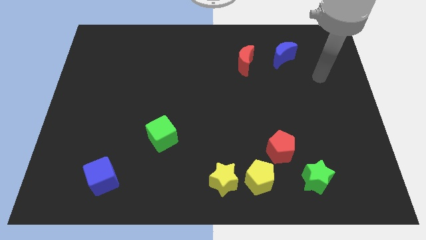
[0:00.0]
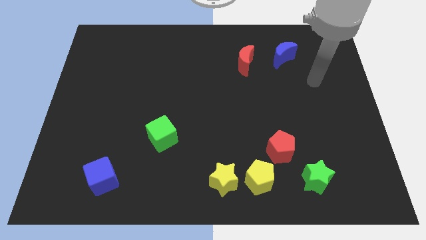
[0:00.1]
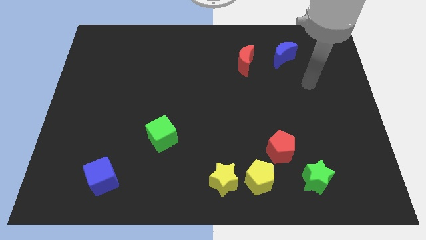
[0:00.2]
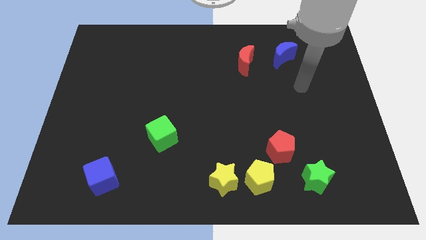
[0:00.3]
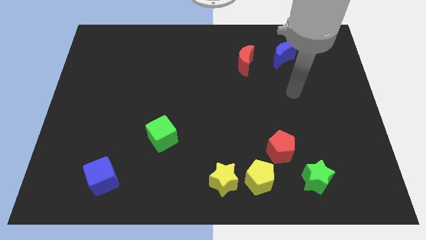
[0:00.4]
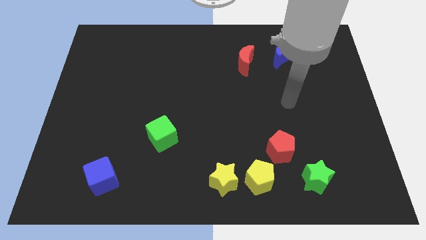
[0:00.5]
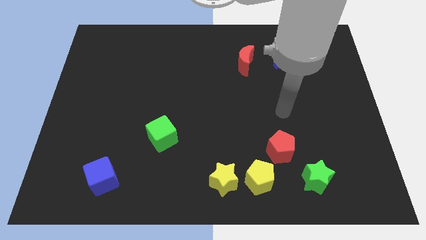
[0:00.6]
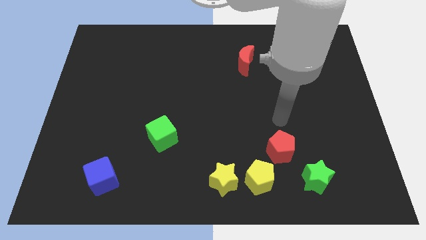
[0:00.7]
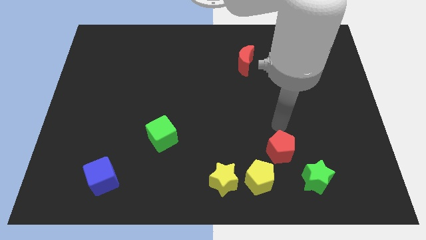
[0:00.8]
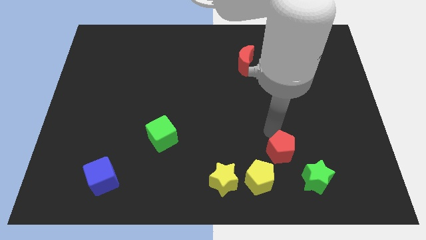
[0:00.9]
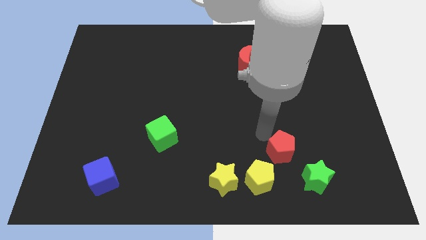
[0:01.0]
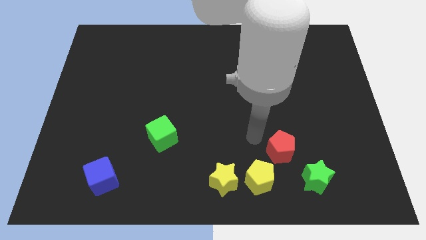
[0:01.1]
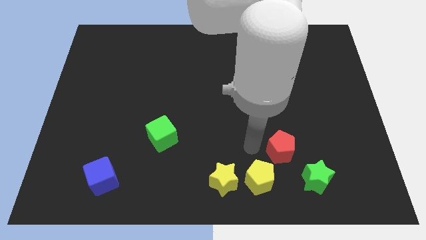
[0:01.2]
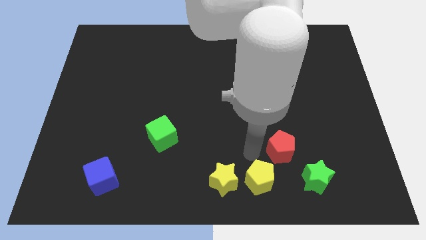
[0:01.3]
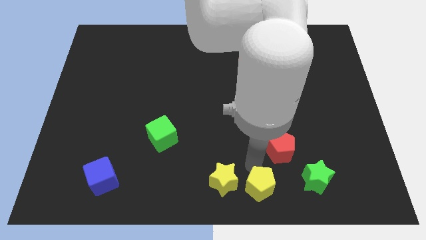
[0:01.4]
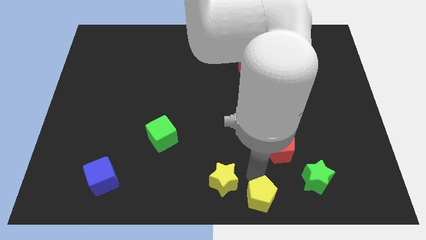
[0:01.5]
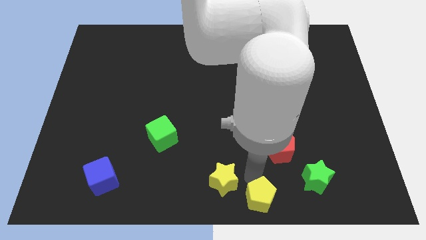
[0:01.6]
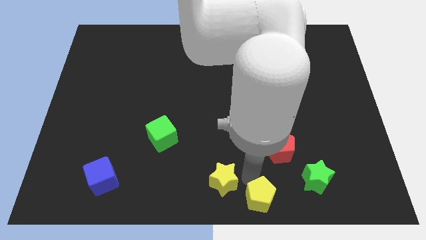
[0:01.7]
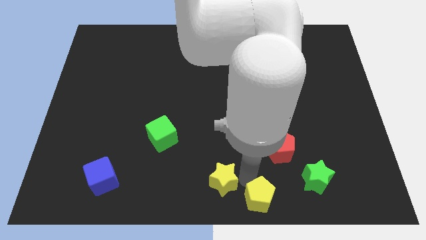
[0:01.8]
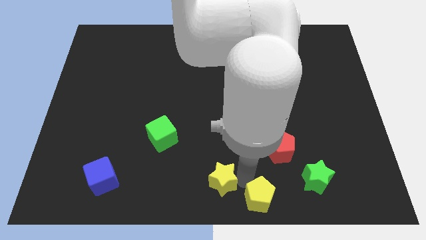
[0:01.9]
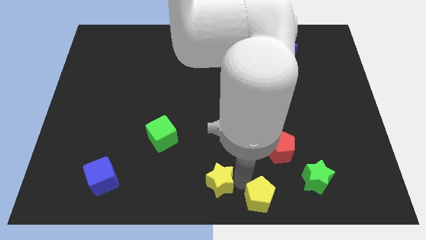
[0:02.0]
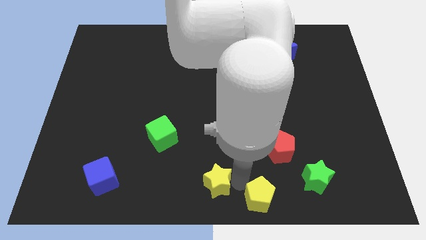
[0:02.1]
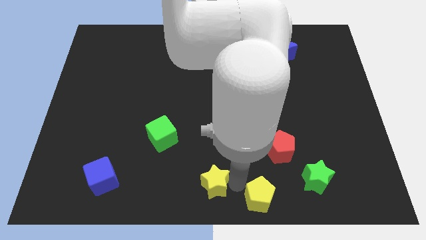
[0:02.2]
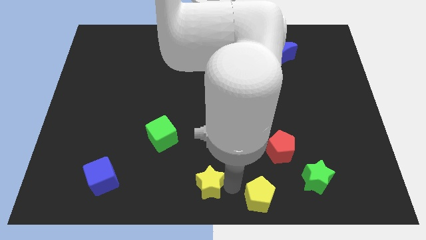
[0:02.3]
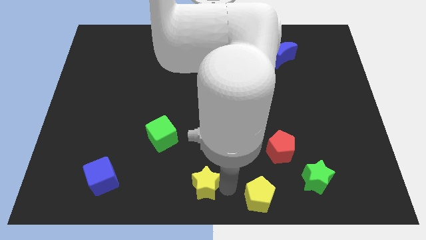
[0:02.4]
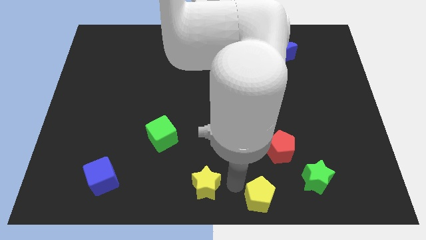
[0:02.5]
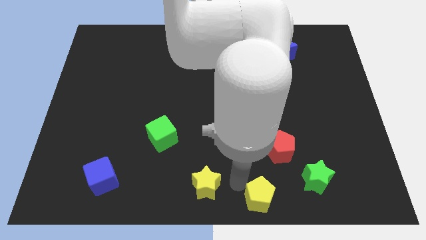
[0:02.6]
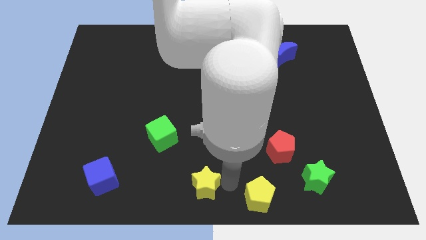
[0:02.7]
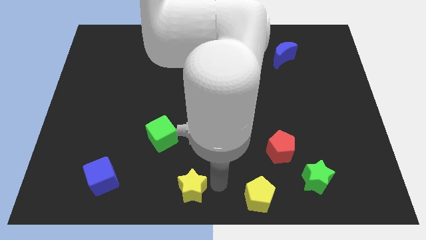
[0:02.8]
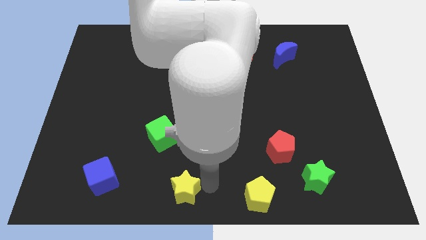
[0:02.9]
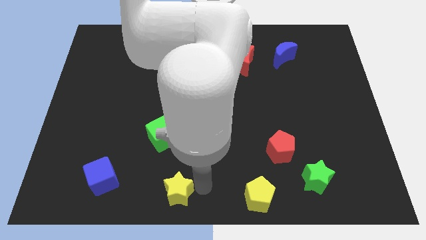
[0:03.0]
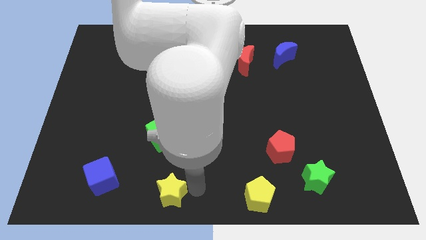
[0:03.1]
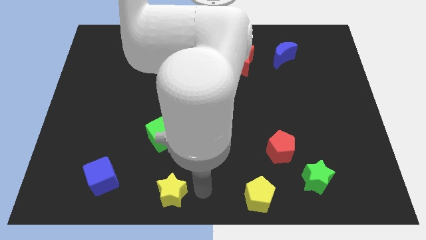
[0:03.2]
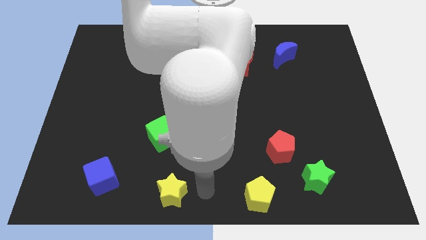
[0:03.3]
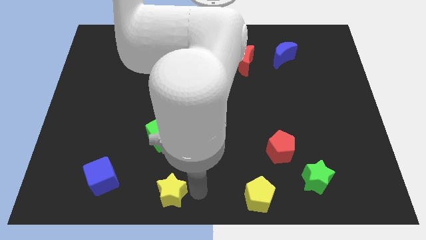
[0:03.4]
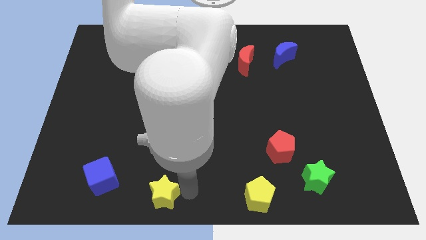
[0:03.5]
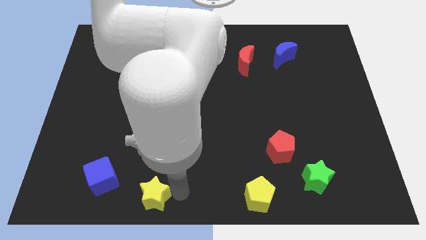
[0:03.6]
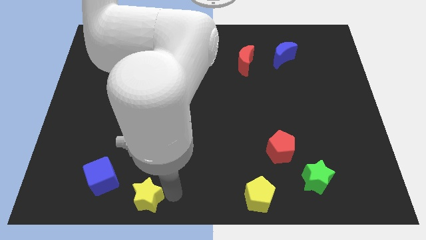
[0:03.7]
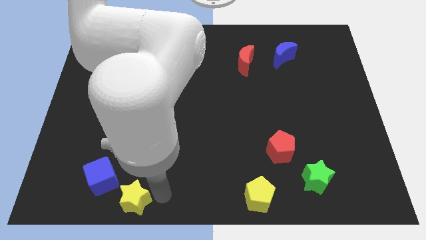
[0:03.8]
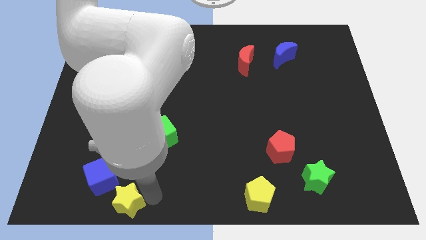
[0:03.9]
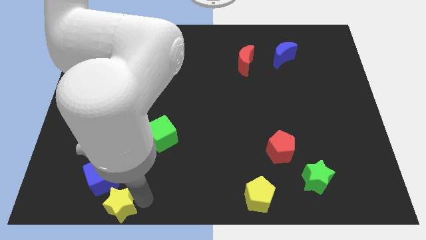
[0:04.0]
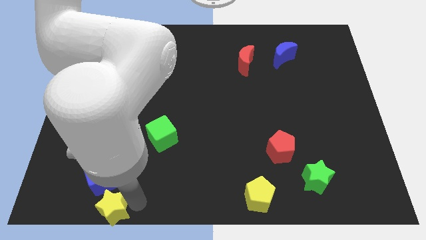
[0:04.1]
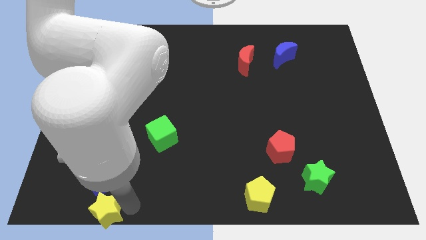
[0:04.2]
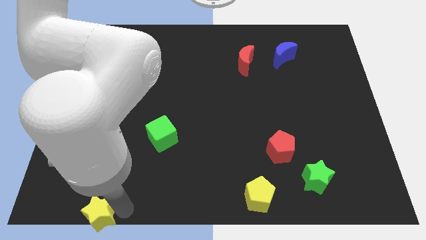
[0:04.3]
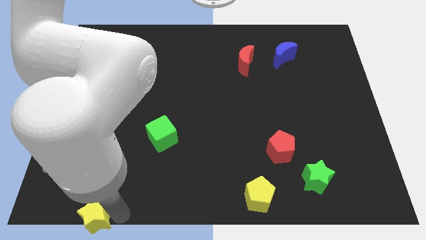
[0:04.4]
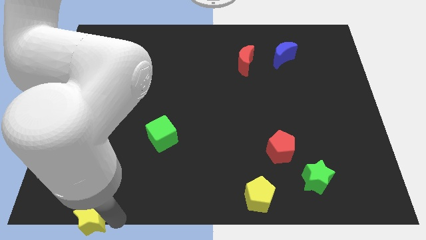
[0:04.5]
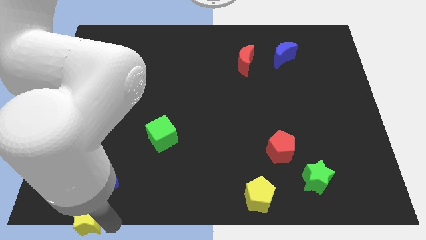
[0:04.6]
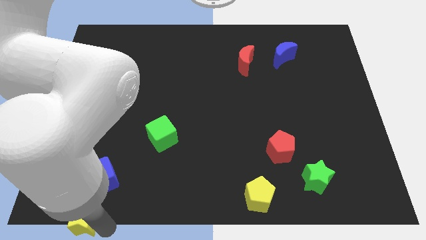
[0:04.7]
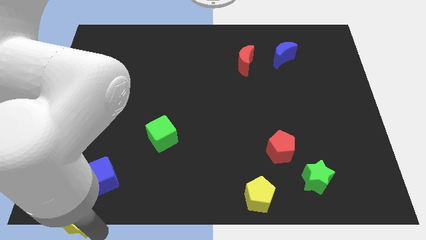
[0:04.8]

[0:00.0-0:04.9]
push the yellow star to the bottom left corner

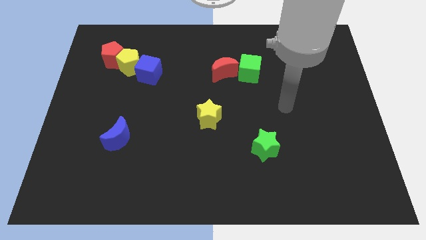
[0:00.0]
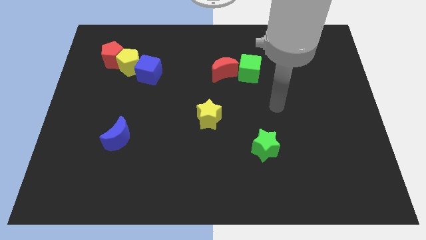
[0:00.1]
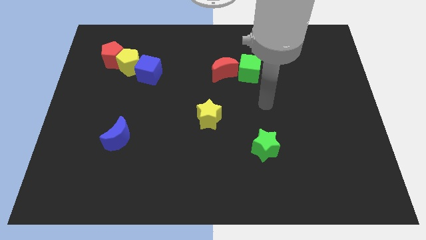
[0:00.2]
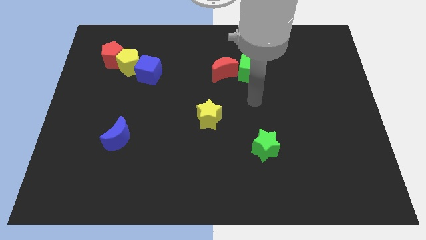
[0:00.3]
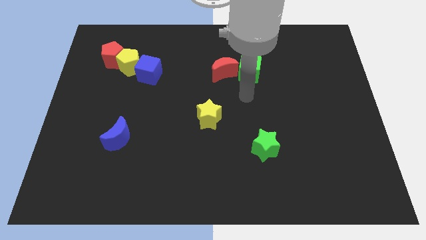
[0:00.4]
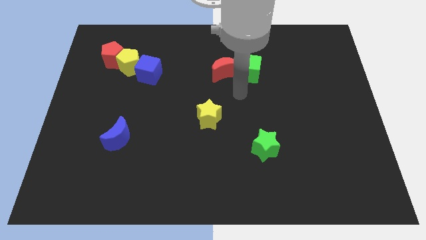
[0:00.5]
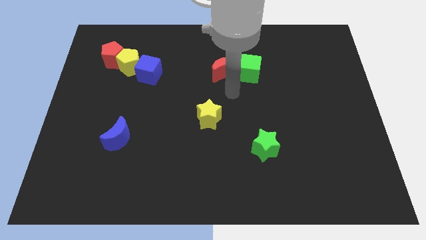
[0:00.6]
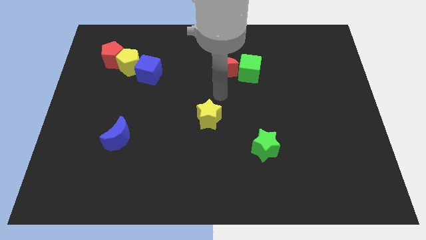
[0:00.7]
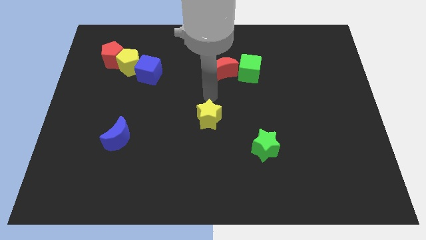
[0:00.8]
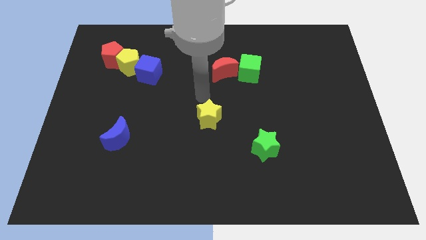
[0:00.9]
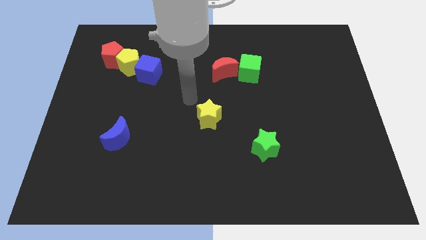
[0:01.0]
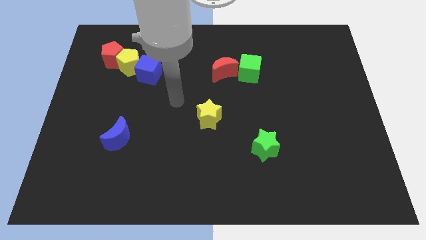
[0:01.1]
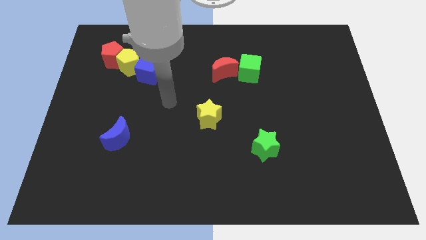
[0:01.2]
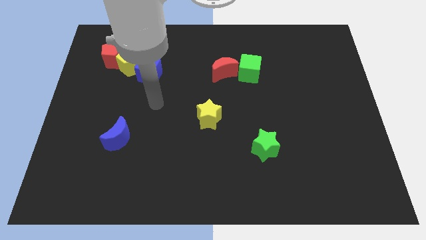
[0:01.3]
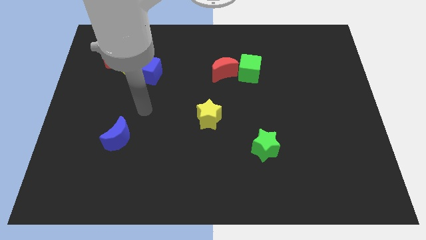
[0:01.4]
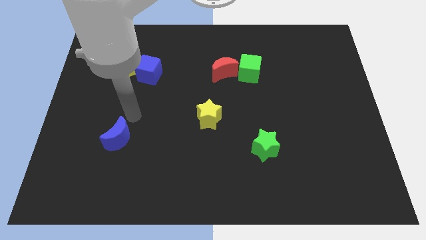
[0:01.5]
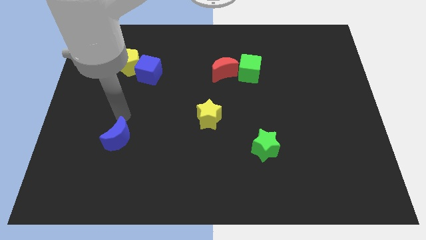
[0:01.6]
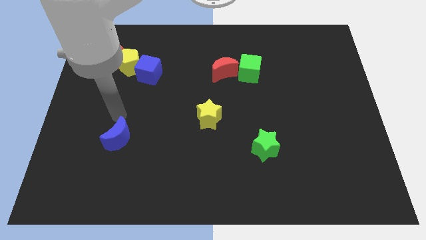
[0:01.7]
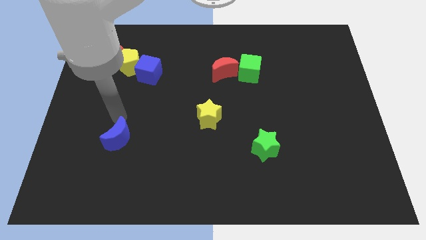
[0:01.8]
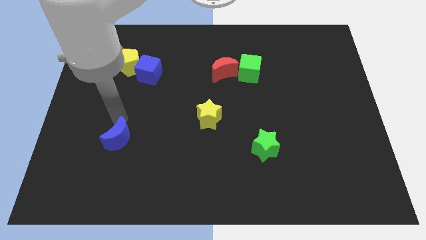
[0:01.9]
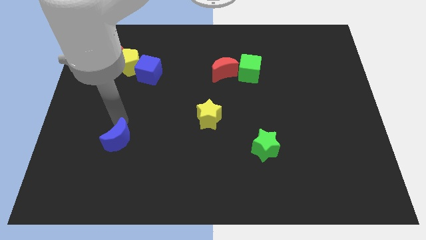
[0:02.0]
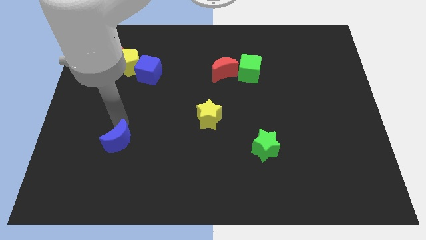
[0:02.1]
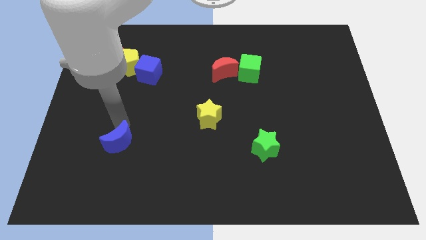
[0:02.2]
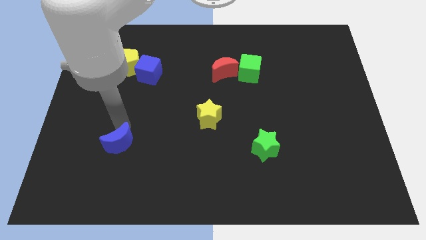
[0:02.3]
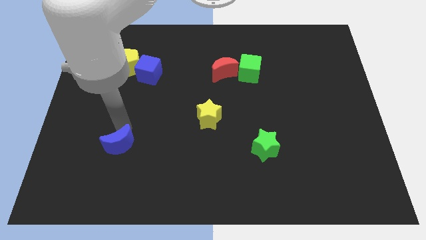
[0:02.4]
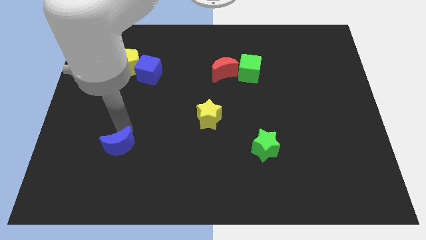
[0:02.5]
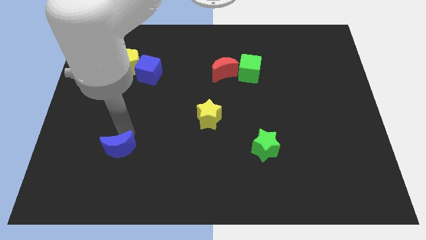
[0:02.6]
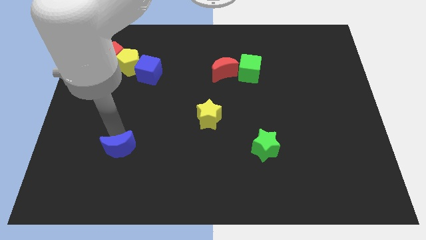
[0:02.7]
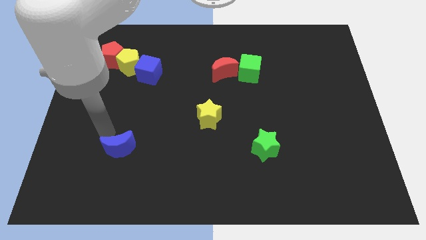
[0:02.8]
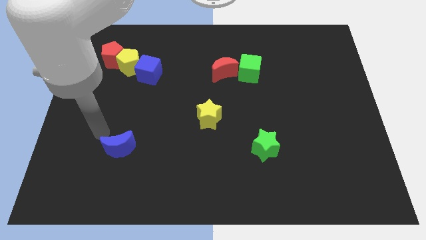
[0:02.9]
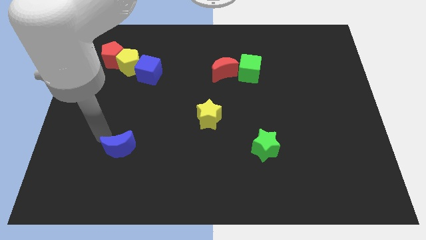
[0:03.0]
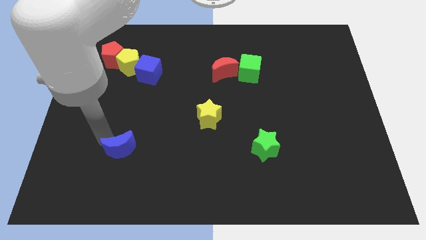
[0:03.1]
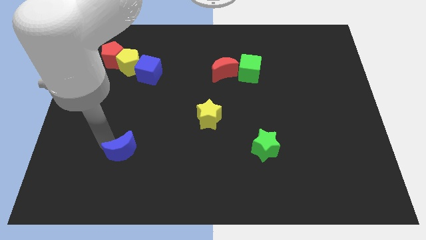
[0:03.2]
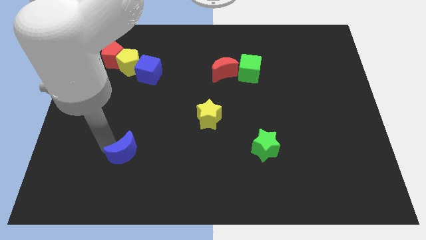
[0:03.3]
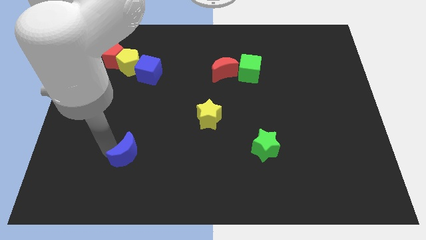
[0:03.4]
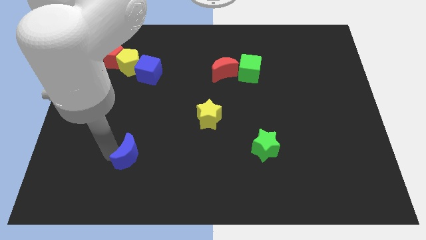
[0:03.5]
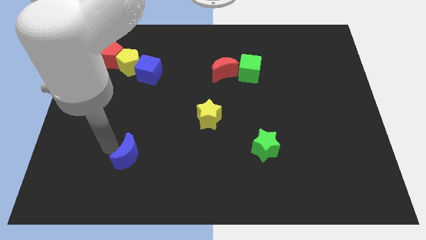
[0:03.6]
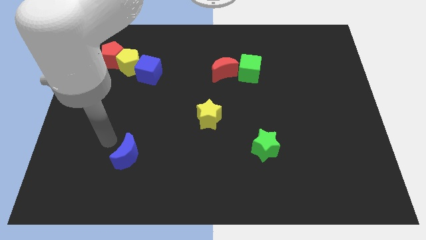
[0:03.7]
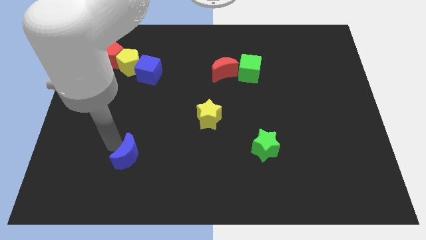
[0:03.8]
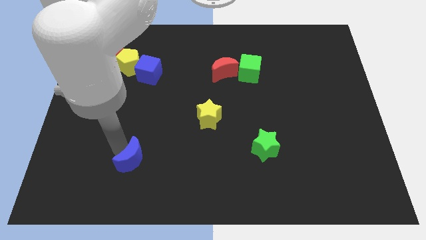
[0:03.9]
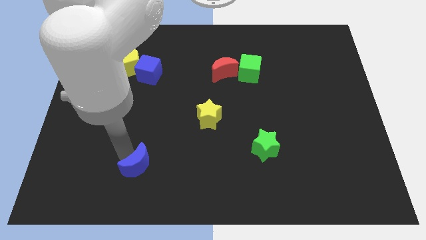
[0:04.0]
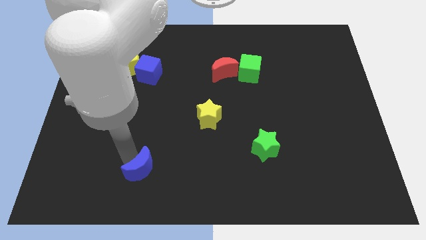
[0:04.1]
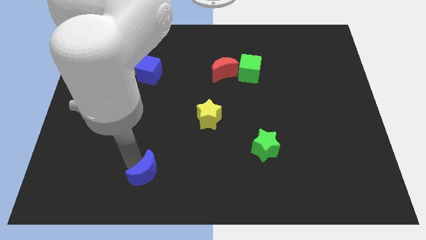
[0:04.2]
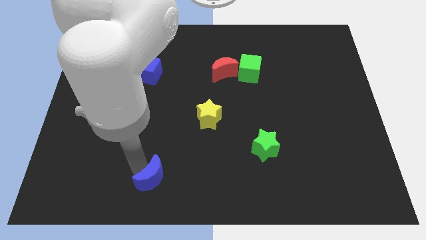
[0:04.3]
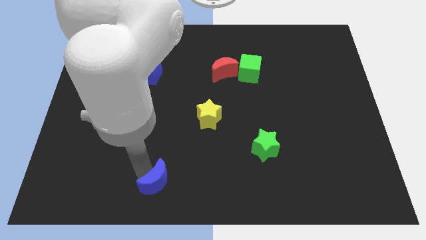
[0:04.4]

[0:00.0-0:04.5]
put the blue moon to the bottom
